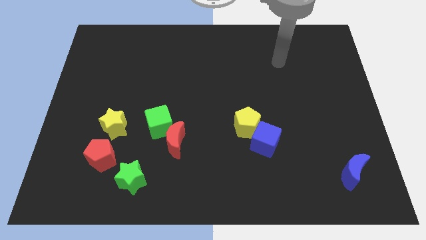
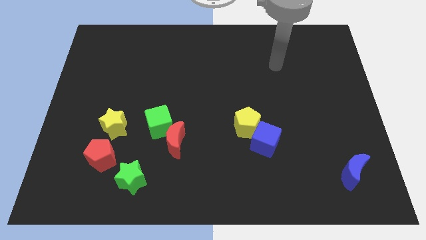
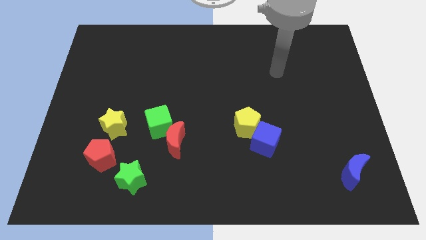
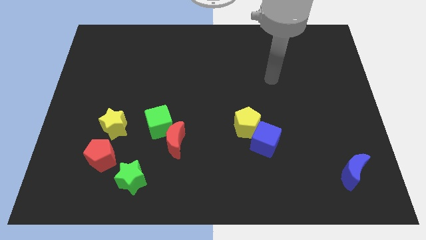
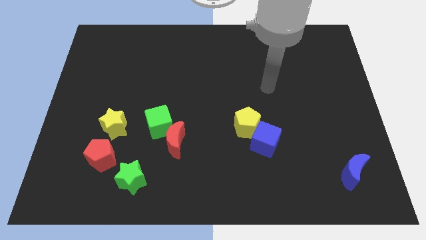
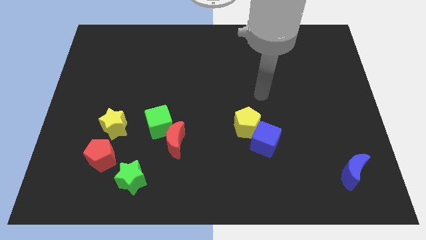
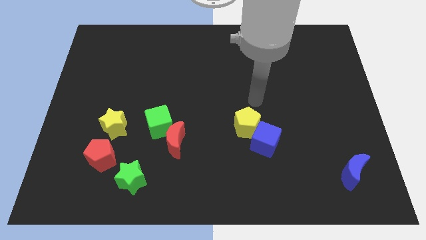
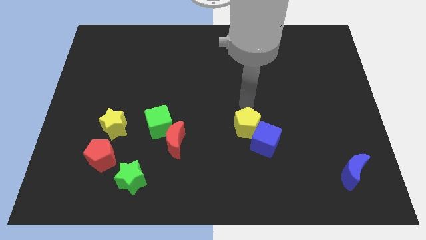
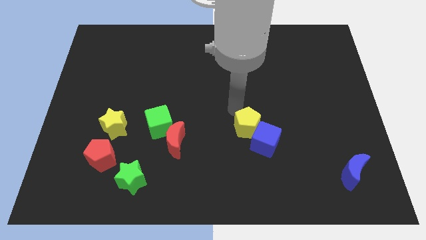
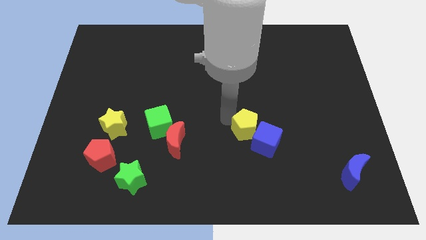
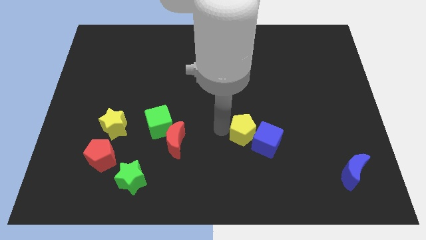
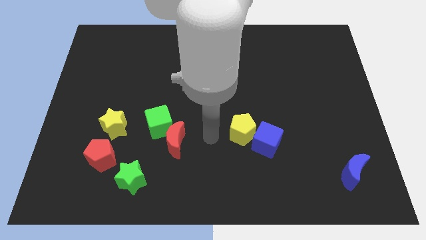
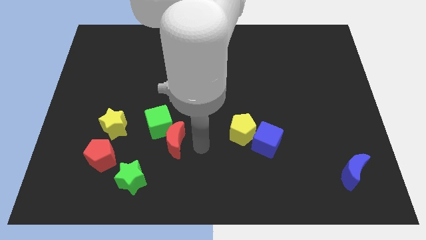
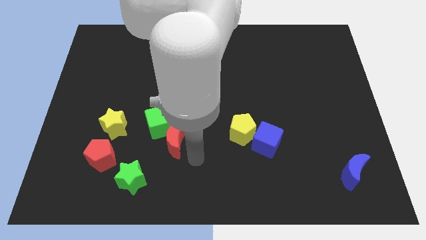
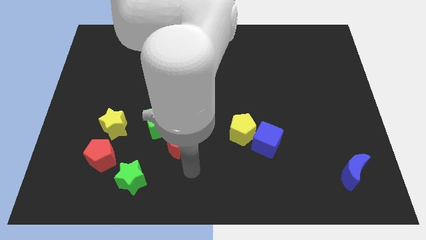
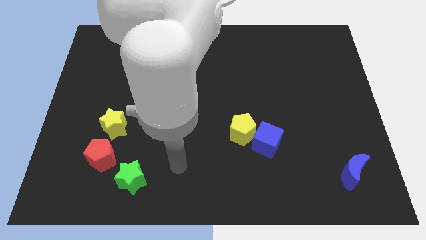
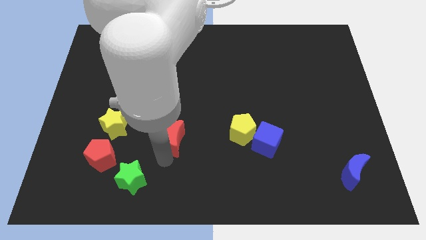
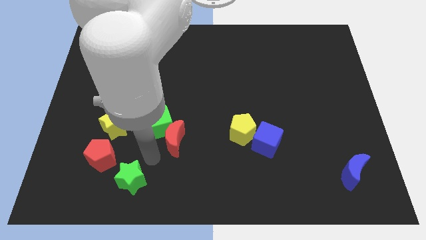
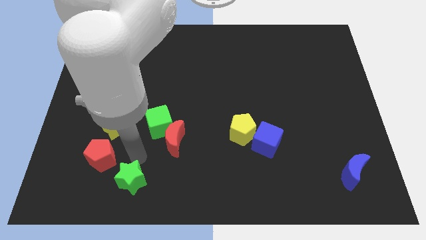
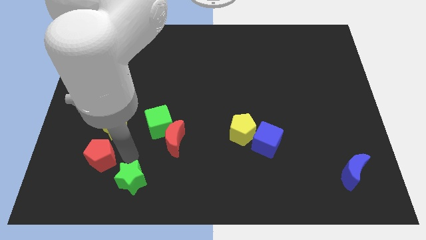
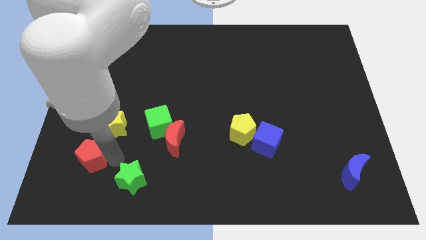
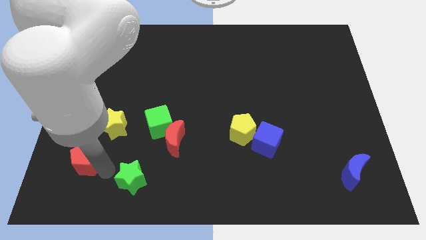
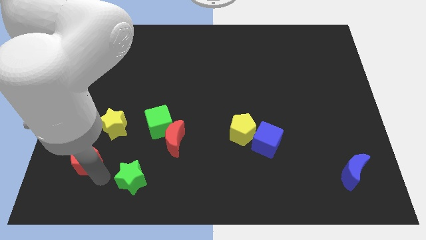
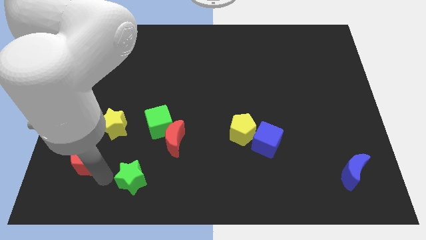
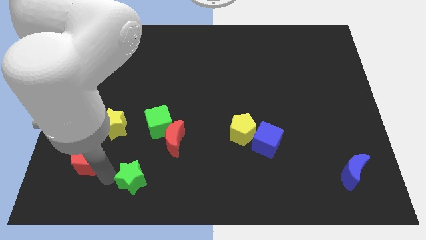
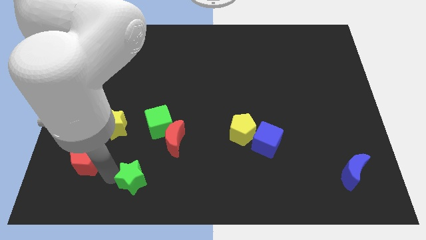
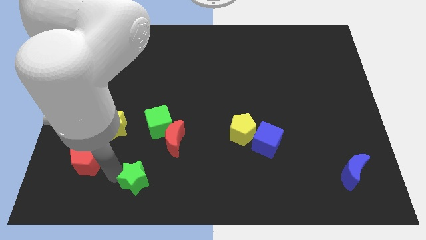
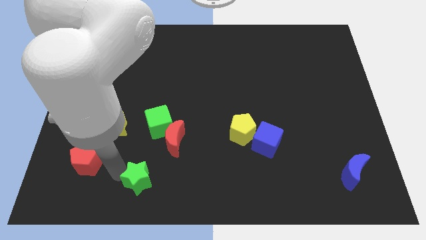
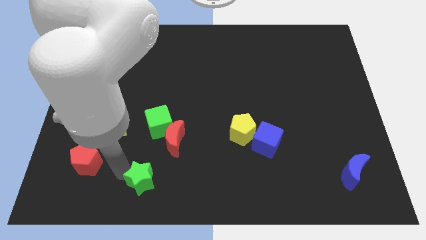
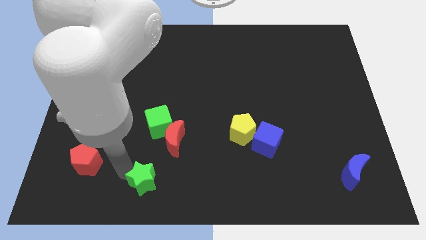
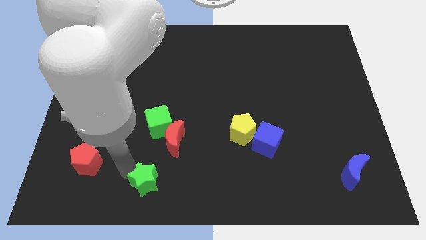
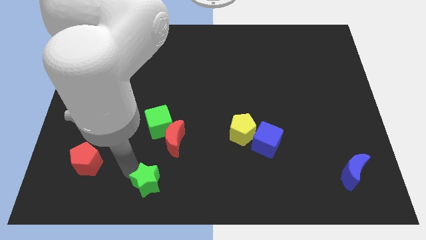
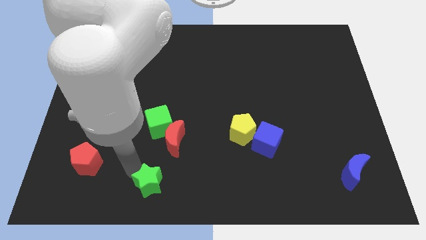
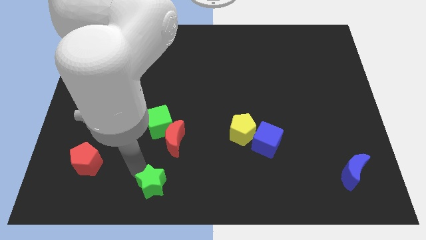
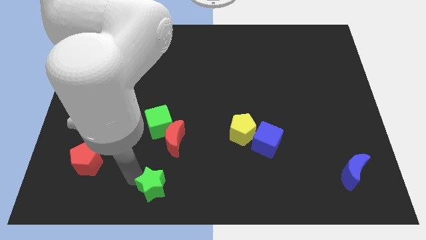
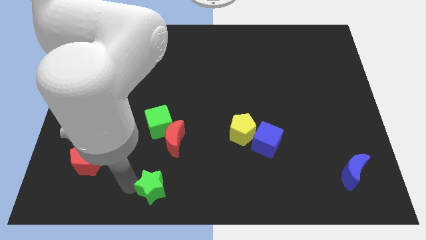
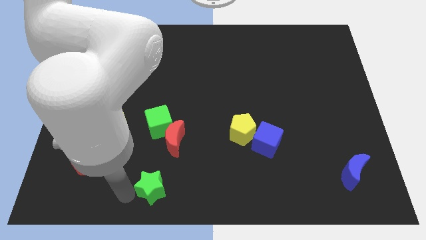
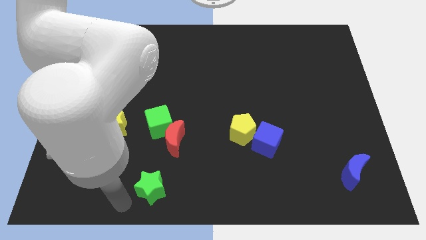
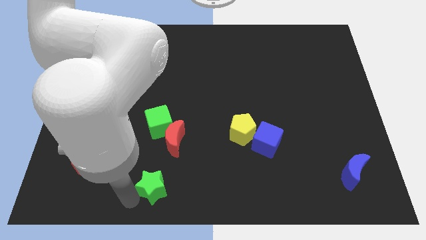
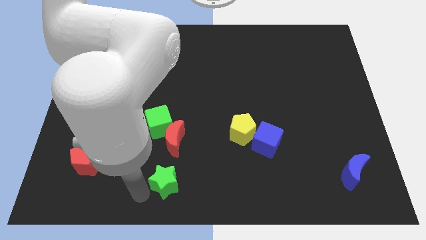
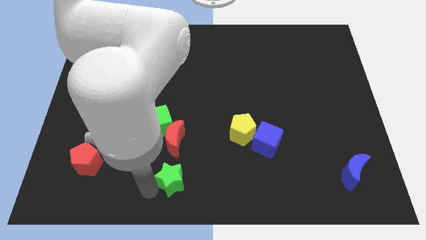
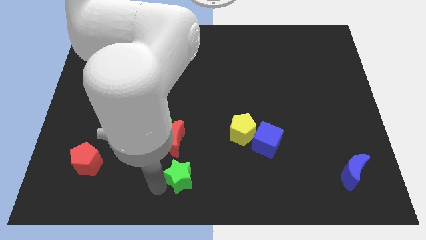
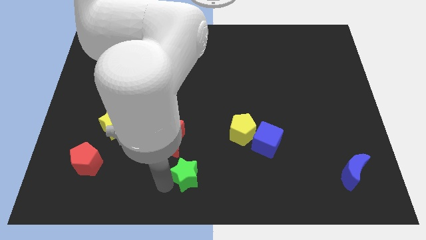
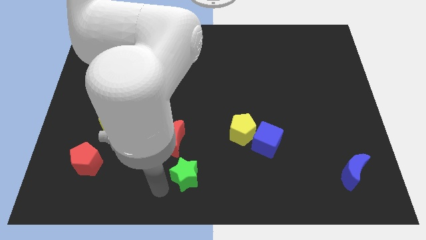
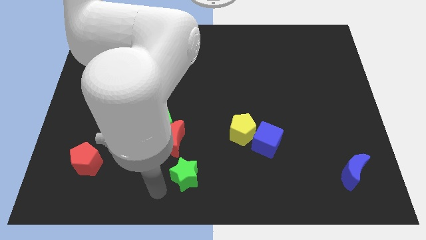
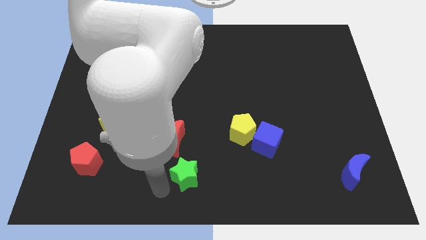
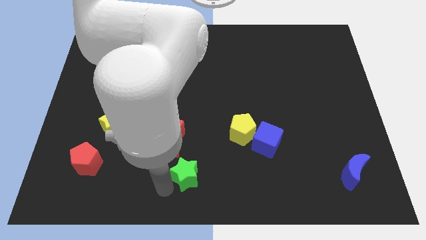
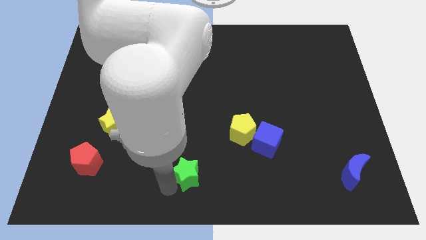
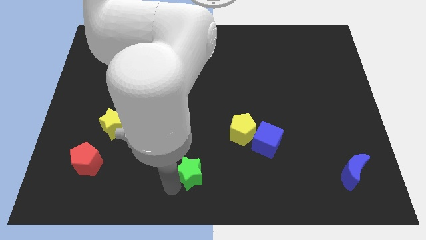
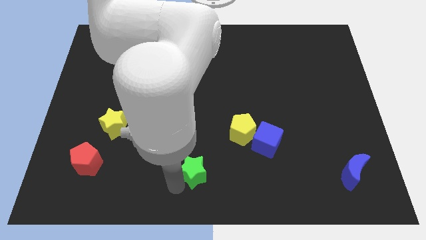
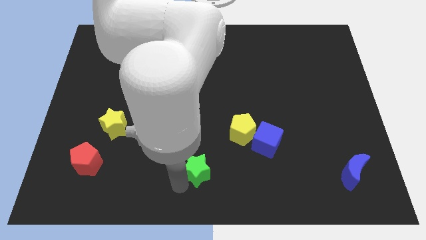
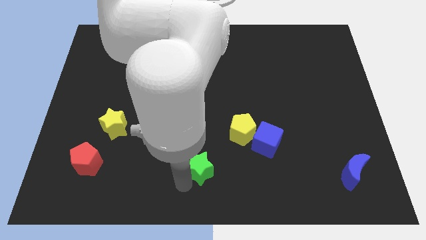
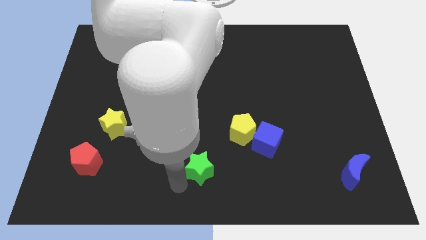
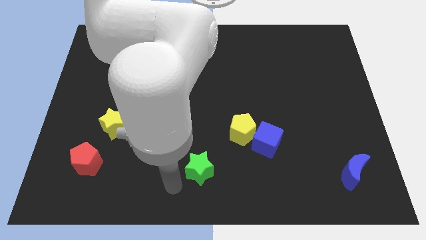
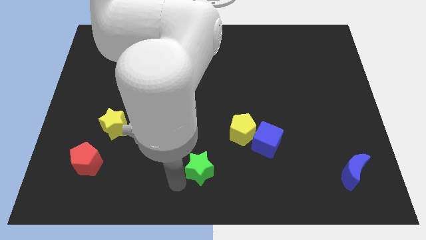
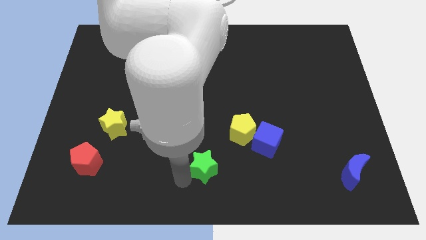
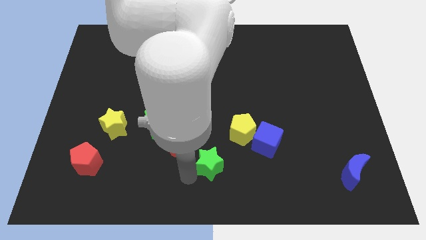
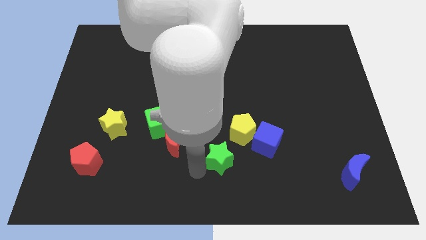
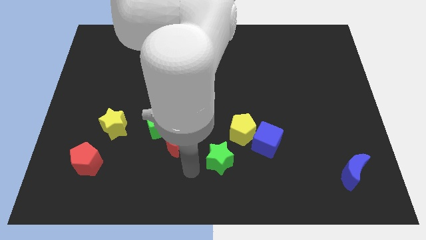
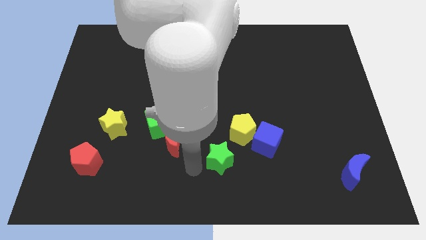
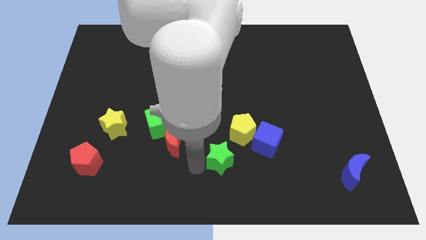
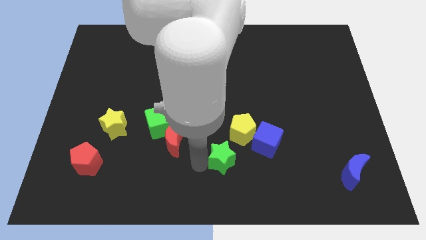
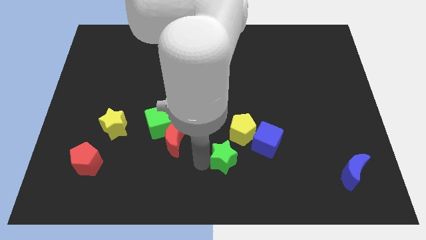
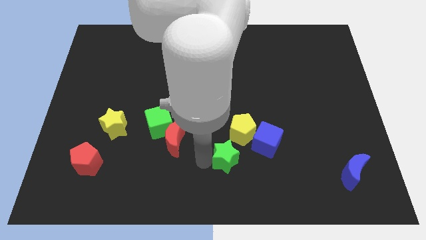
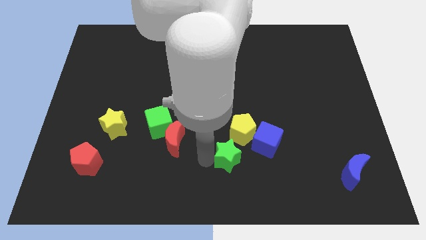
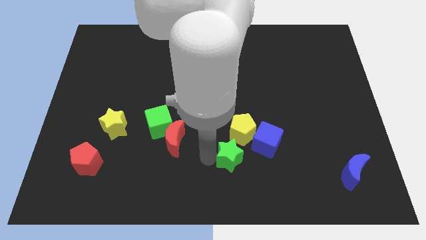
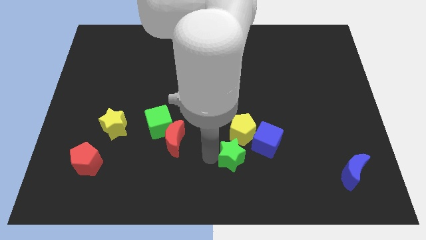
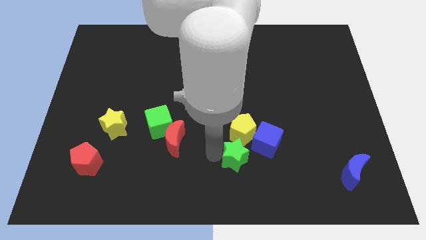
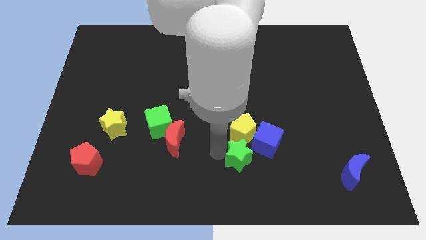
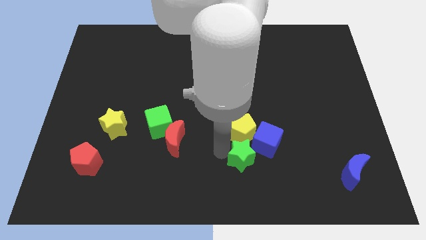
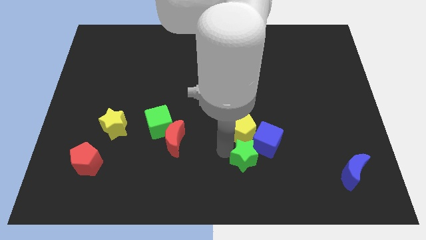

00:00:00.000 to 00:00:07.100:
push the green star close to the blue cube
